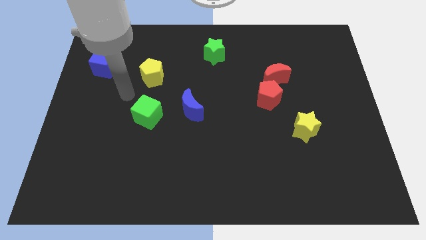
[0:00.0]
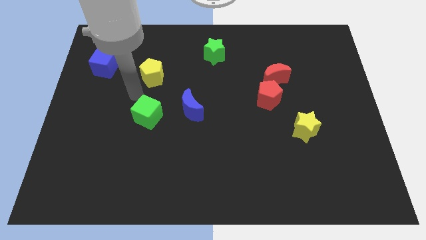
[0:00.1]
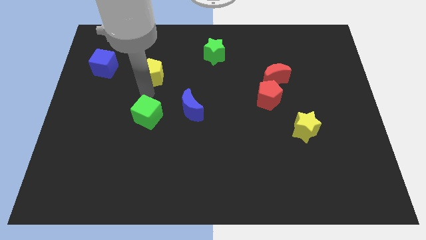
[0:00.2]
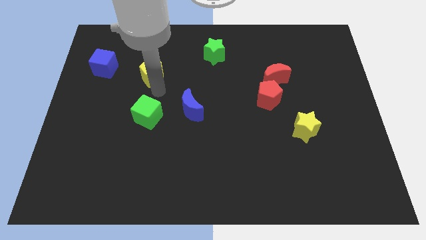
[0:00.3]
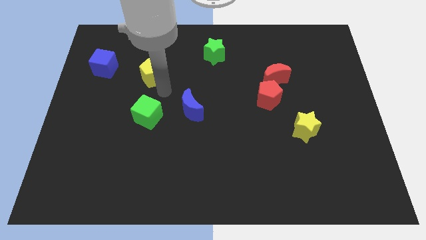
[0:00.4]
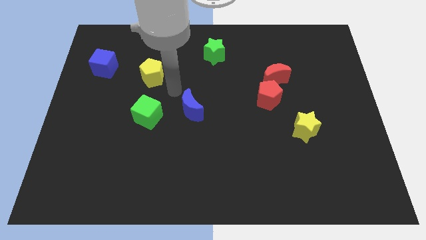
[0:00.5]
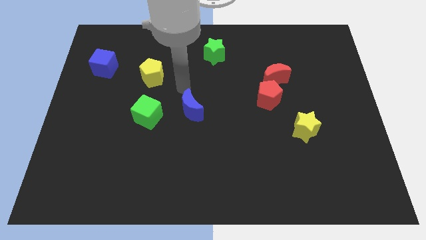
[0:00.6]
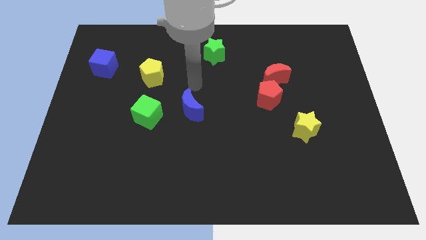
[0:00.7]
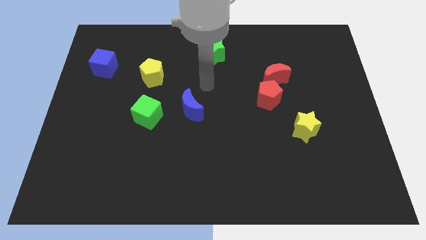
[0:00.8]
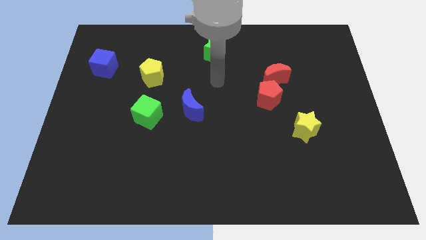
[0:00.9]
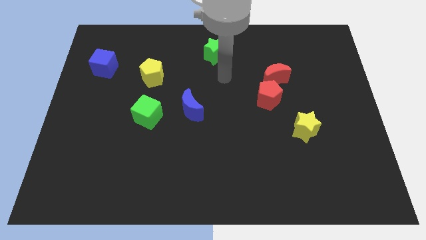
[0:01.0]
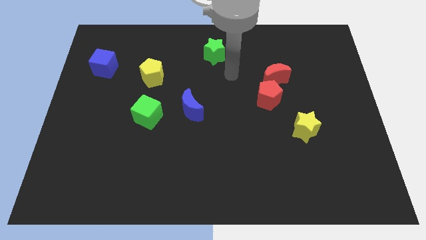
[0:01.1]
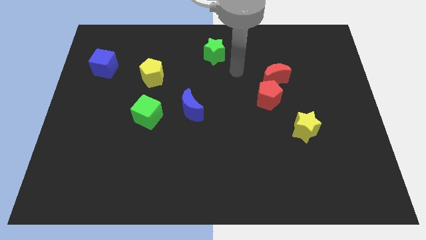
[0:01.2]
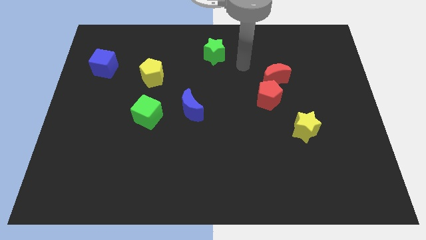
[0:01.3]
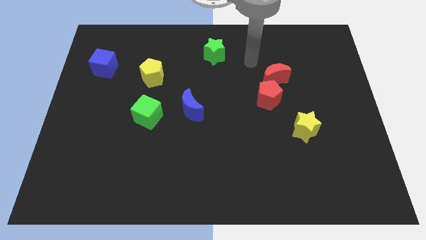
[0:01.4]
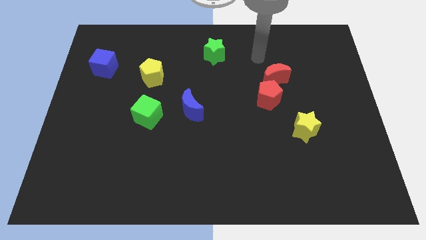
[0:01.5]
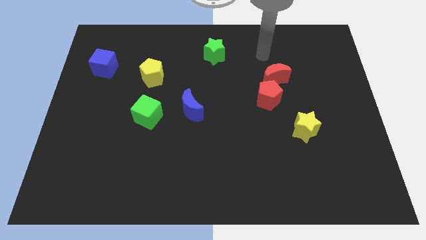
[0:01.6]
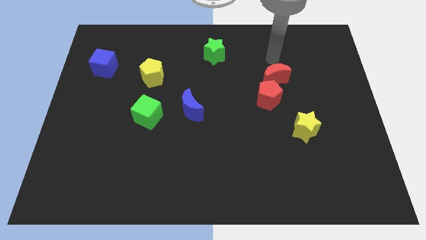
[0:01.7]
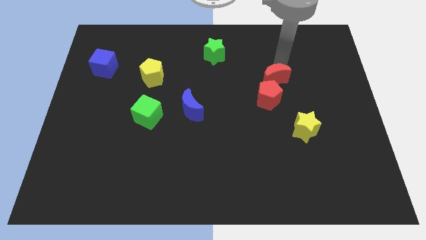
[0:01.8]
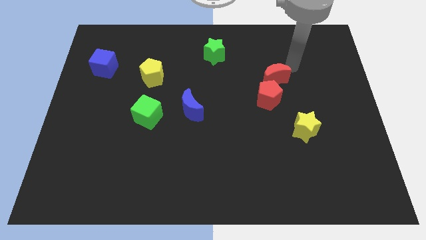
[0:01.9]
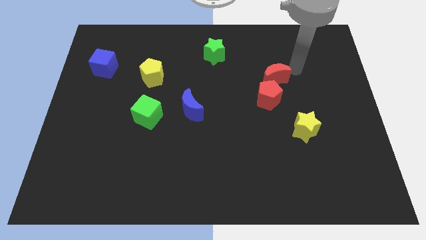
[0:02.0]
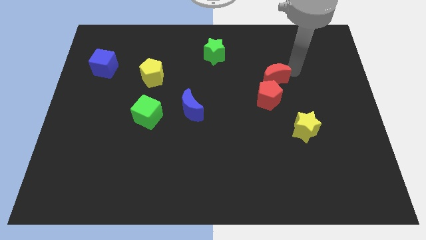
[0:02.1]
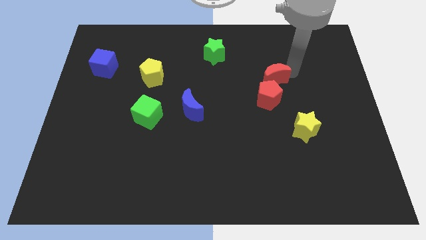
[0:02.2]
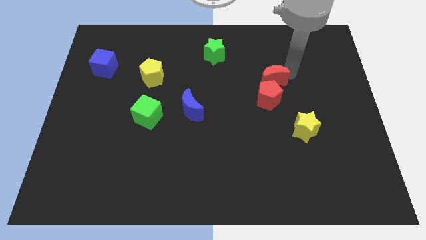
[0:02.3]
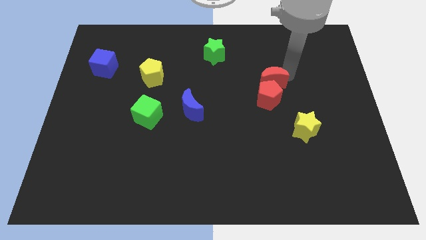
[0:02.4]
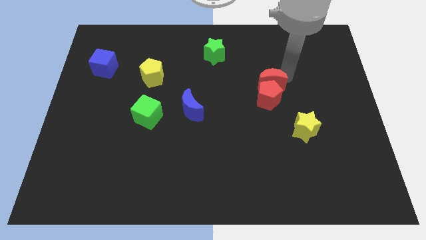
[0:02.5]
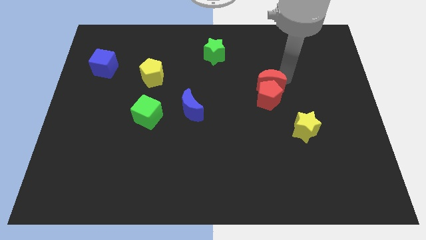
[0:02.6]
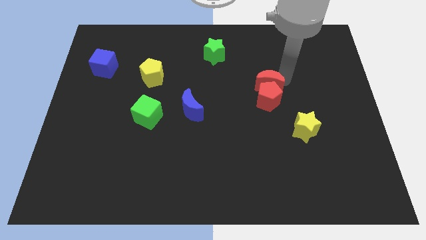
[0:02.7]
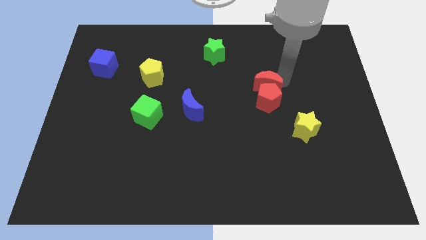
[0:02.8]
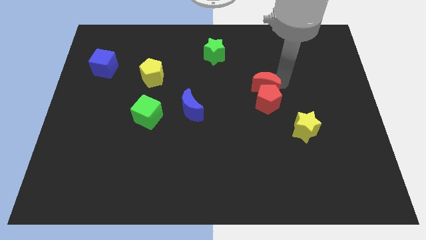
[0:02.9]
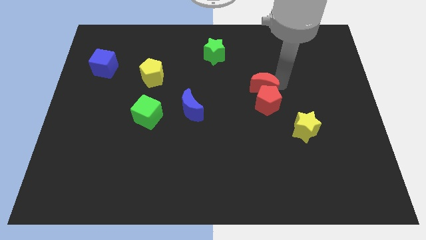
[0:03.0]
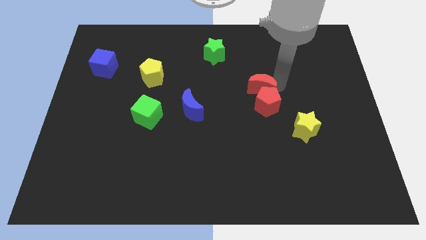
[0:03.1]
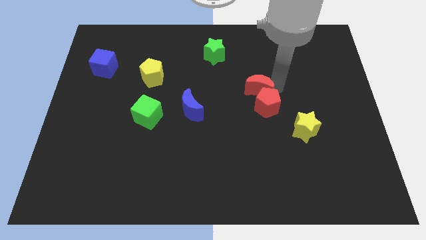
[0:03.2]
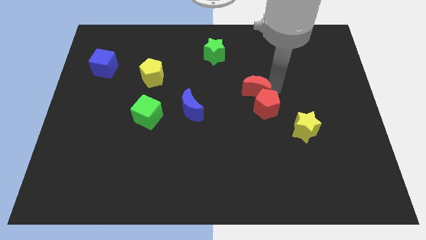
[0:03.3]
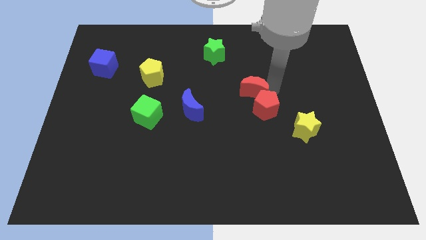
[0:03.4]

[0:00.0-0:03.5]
move the red moon down and then to the left somewhat

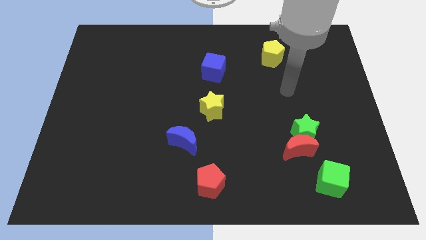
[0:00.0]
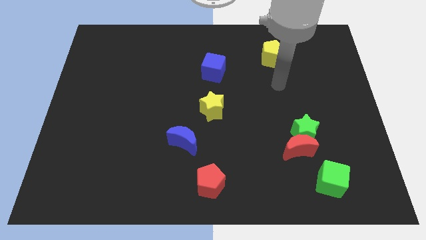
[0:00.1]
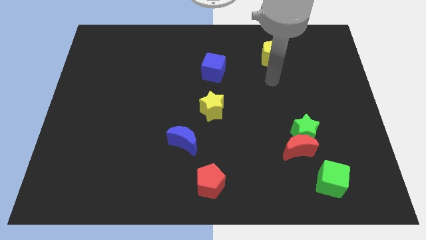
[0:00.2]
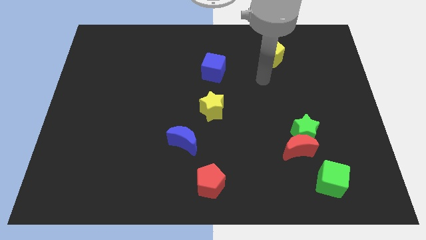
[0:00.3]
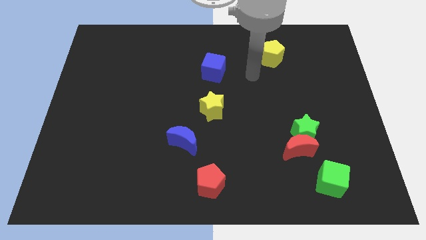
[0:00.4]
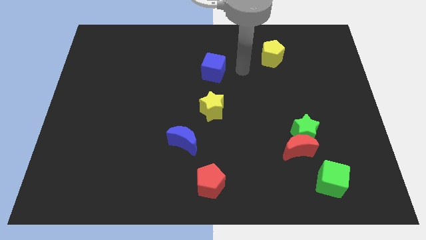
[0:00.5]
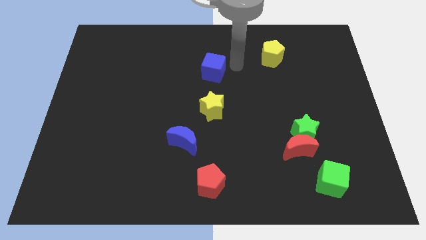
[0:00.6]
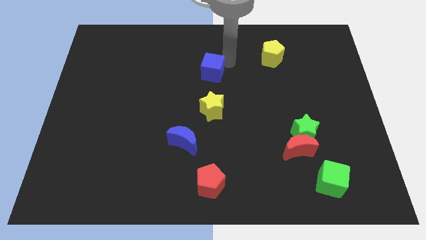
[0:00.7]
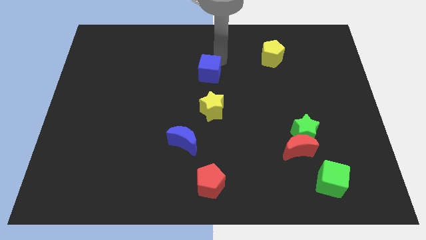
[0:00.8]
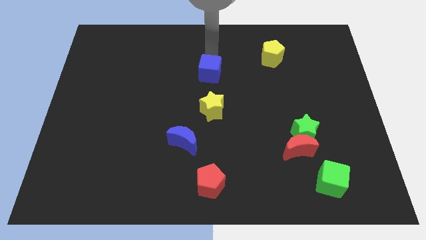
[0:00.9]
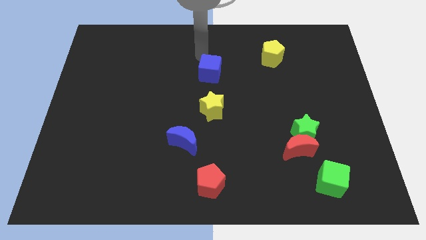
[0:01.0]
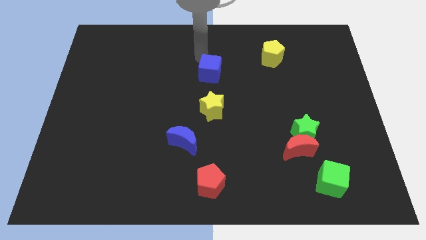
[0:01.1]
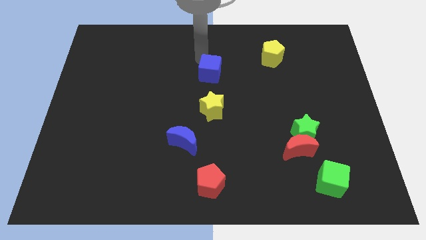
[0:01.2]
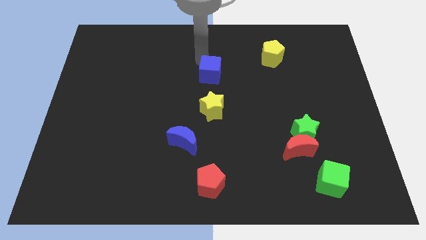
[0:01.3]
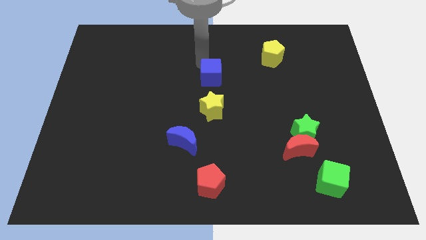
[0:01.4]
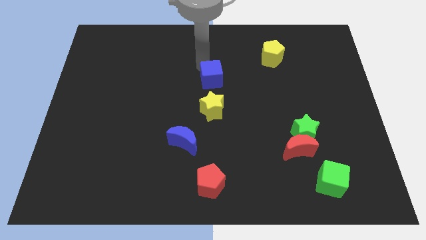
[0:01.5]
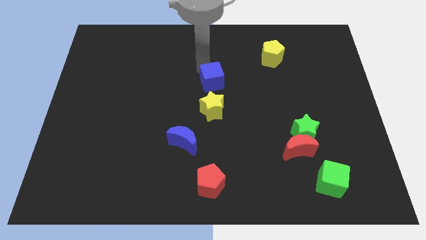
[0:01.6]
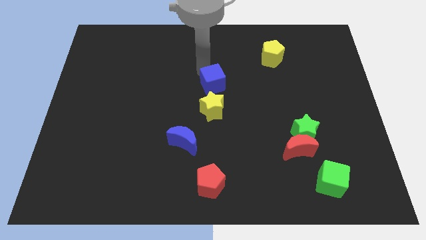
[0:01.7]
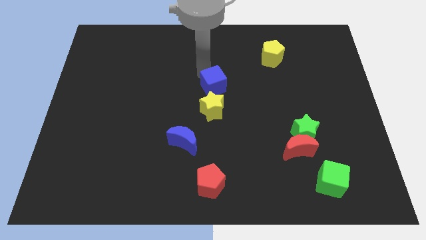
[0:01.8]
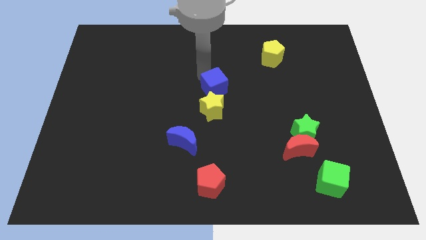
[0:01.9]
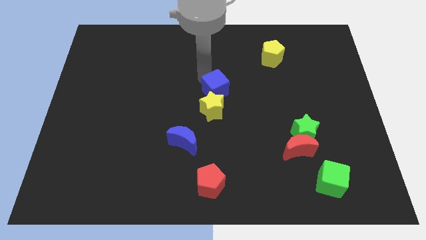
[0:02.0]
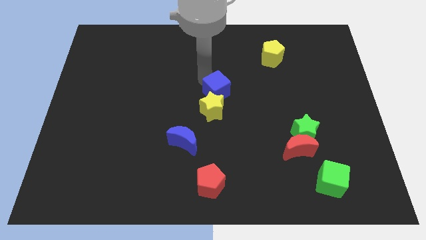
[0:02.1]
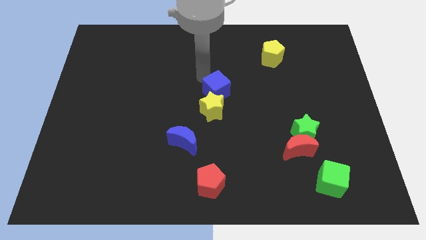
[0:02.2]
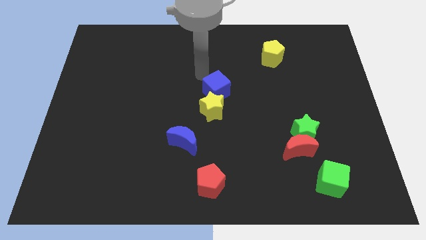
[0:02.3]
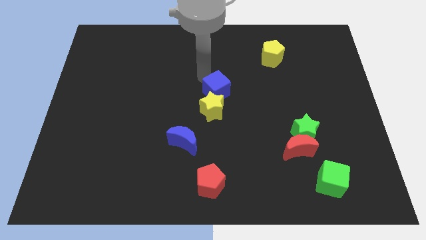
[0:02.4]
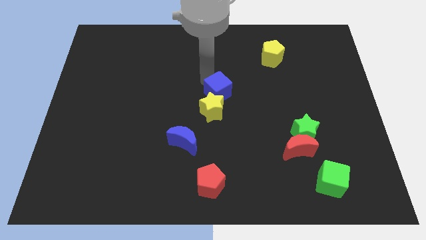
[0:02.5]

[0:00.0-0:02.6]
slightly slide the blue cube downwards

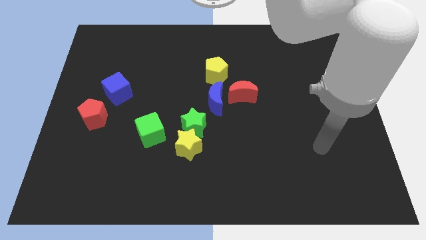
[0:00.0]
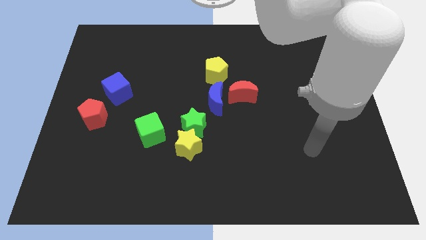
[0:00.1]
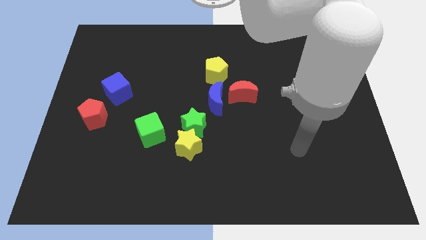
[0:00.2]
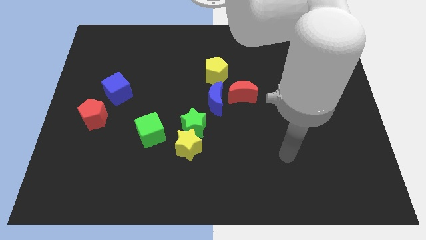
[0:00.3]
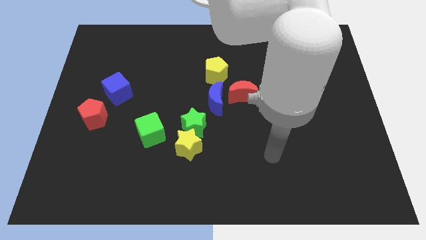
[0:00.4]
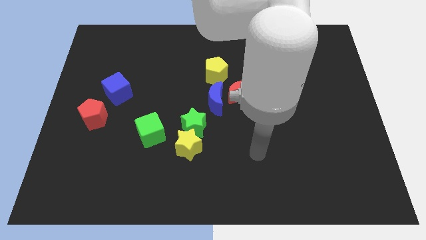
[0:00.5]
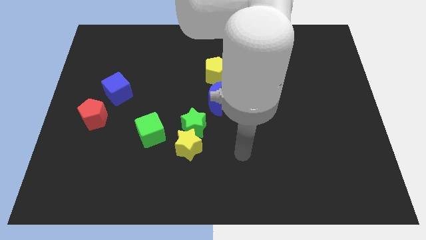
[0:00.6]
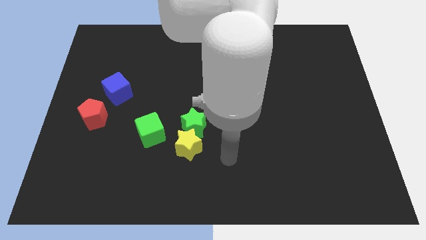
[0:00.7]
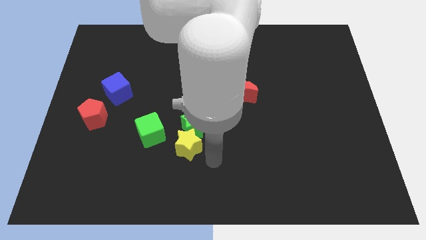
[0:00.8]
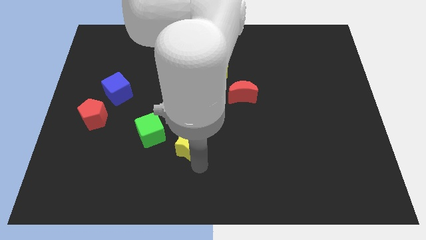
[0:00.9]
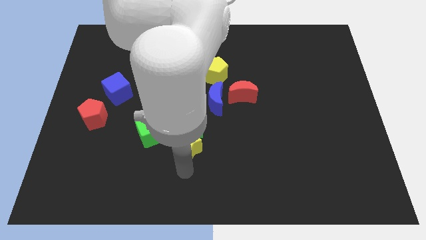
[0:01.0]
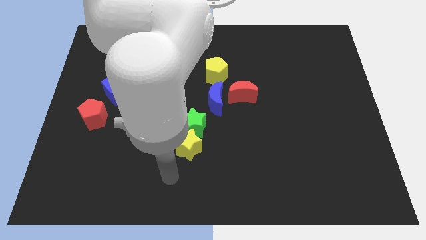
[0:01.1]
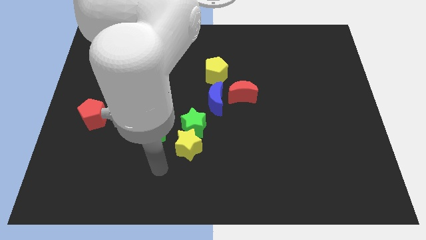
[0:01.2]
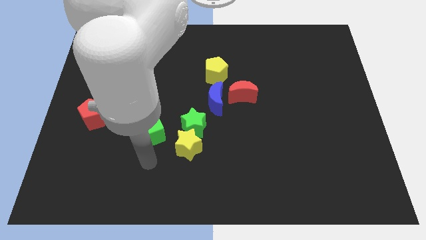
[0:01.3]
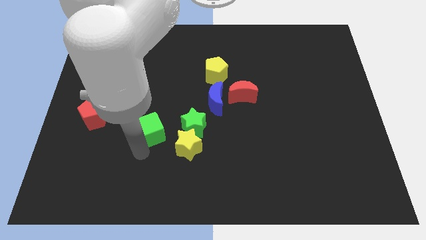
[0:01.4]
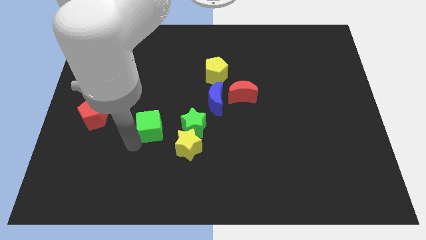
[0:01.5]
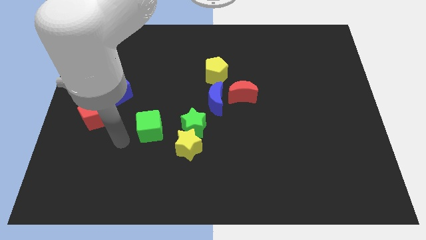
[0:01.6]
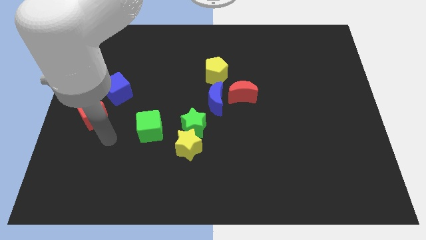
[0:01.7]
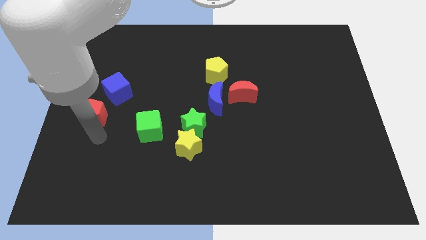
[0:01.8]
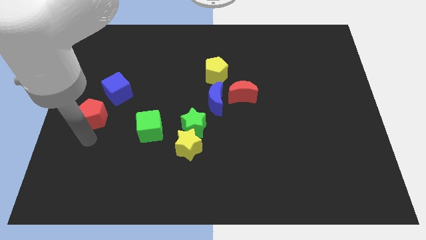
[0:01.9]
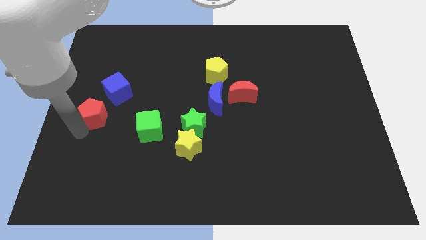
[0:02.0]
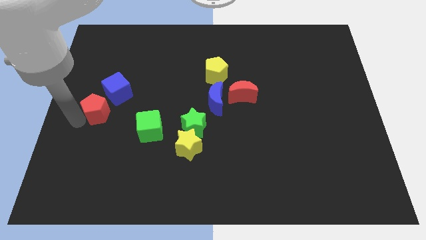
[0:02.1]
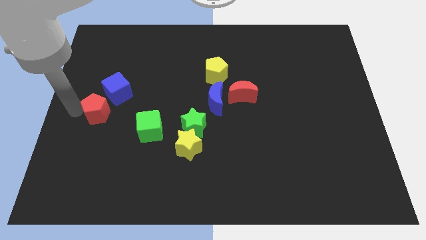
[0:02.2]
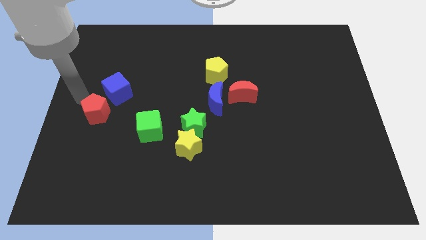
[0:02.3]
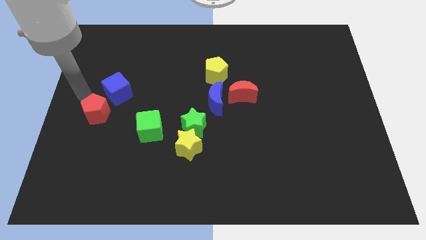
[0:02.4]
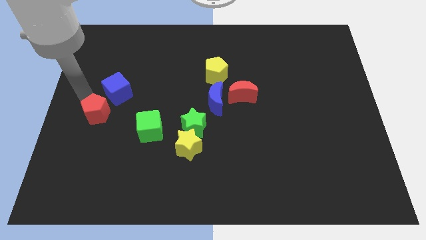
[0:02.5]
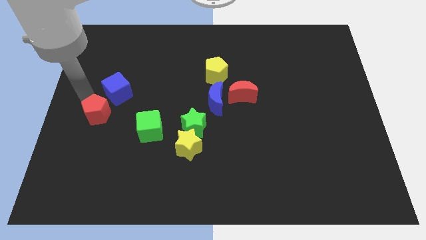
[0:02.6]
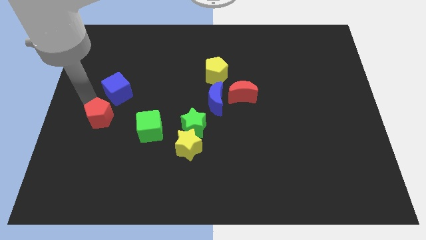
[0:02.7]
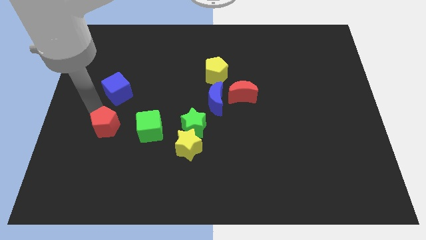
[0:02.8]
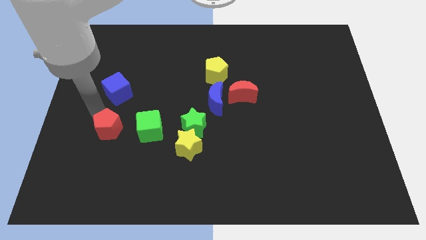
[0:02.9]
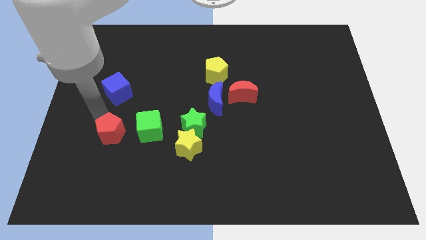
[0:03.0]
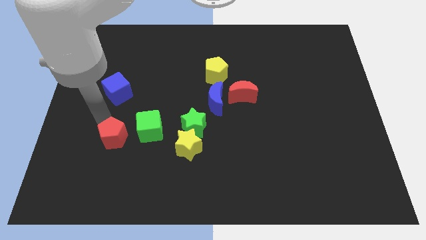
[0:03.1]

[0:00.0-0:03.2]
move the red pentagon down and then right a little bit
